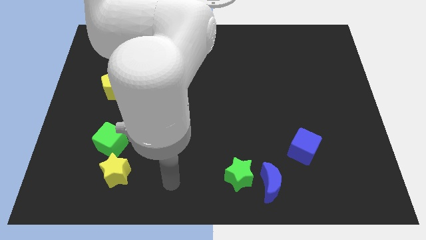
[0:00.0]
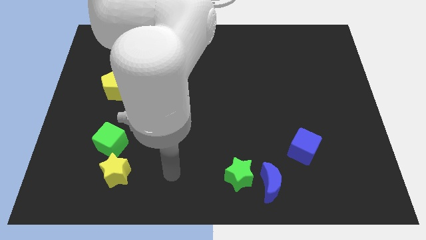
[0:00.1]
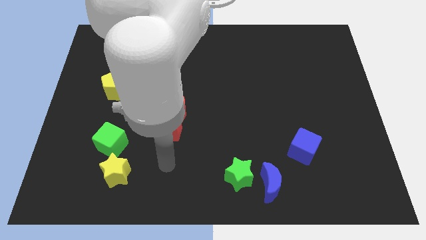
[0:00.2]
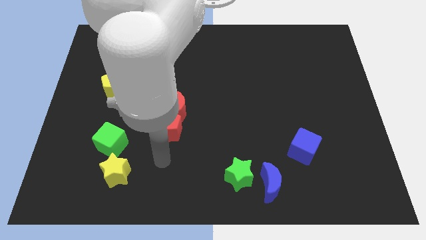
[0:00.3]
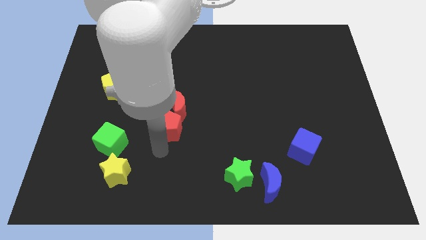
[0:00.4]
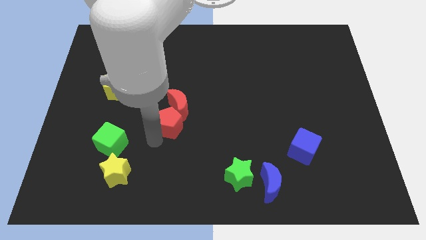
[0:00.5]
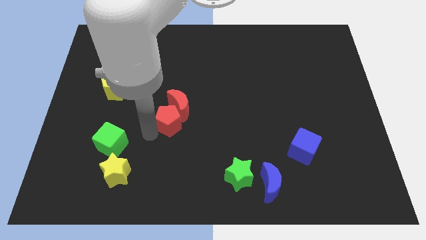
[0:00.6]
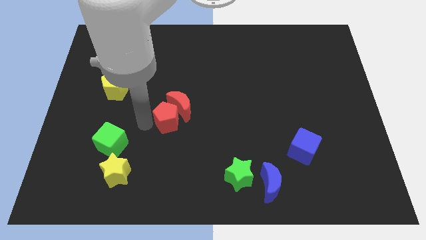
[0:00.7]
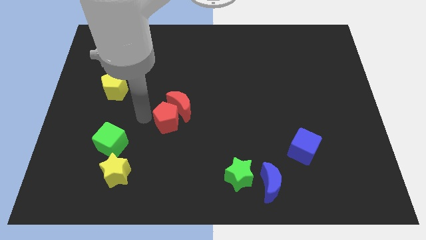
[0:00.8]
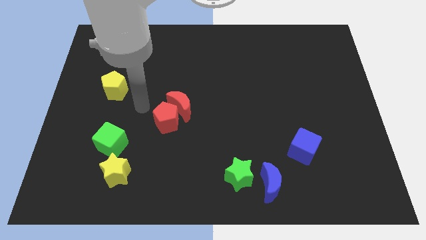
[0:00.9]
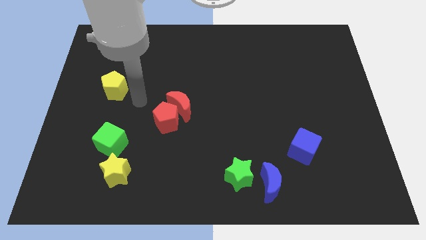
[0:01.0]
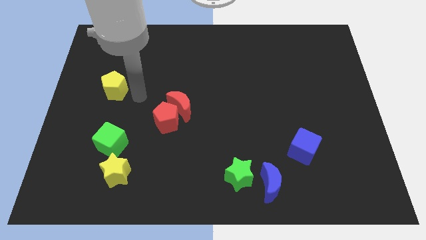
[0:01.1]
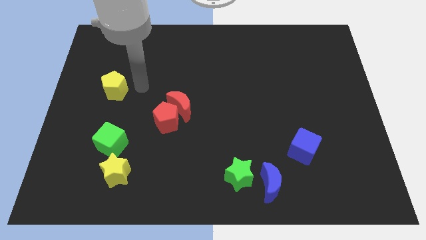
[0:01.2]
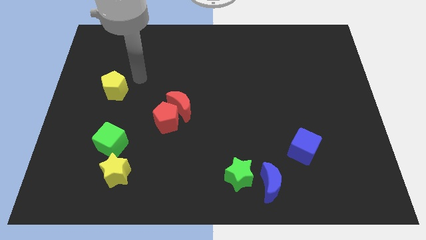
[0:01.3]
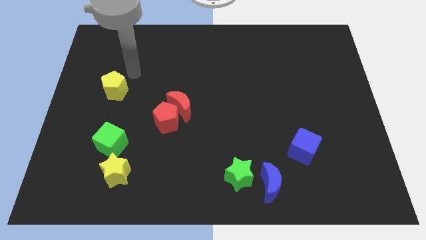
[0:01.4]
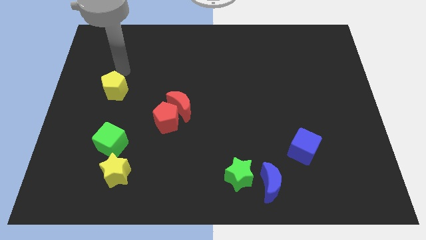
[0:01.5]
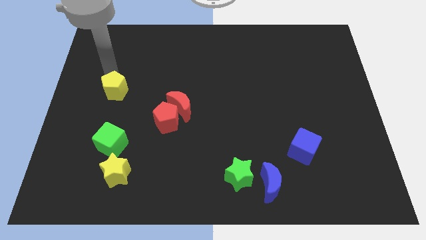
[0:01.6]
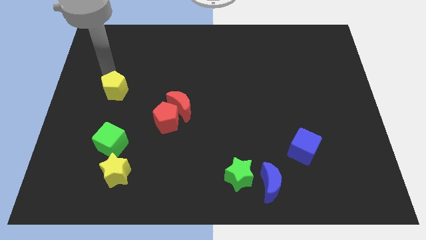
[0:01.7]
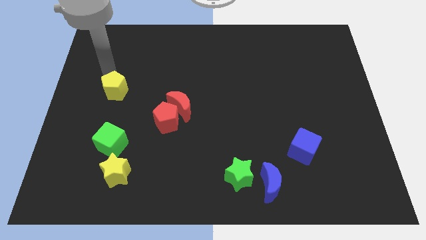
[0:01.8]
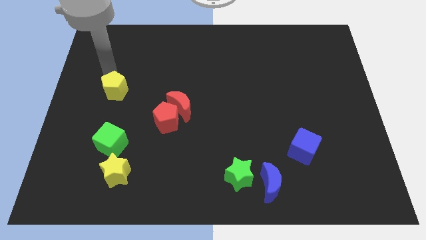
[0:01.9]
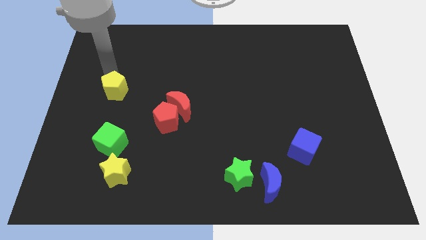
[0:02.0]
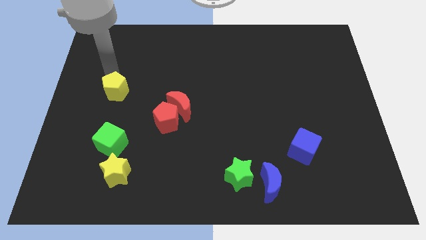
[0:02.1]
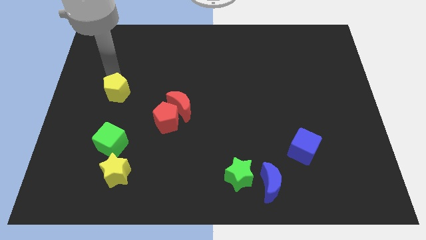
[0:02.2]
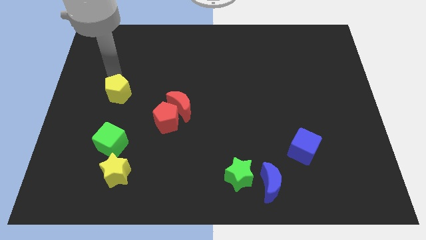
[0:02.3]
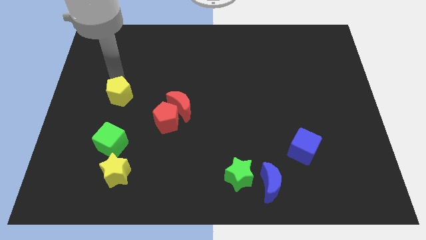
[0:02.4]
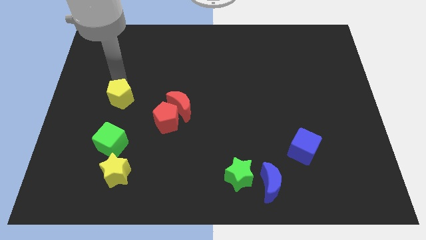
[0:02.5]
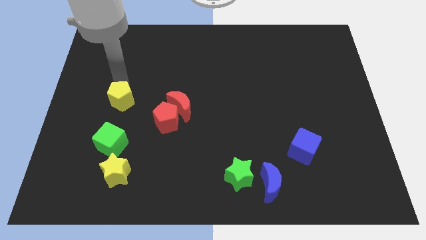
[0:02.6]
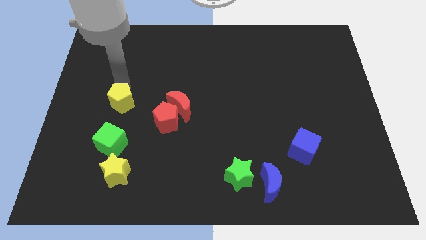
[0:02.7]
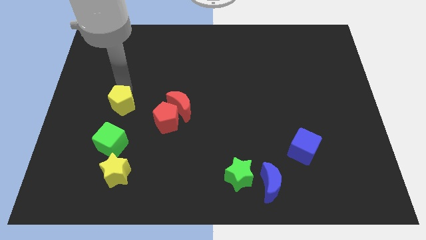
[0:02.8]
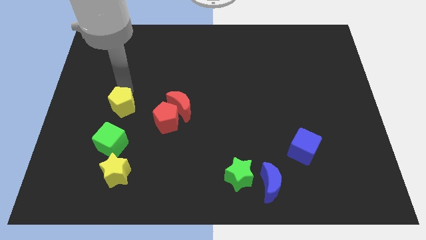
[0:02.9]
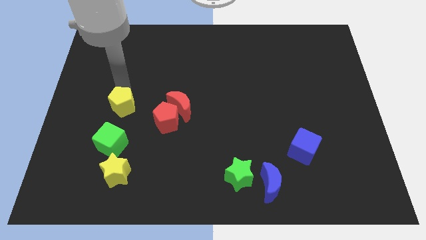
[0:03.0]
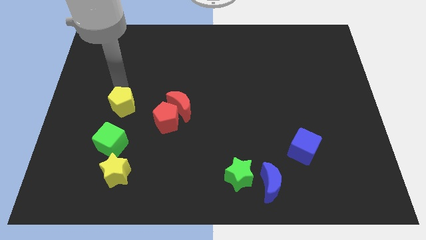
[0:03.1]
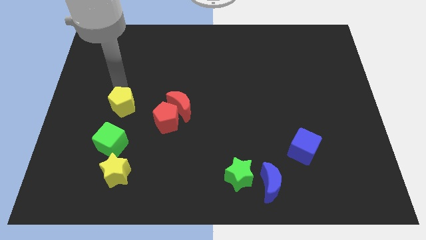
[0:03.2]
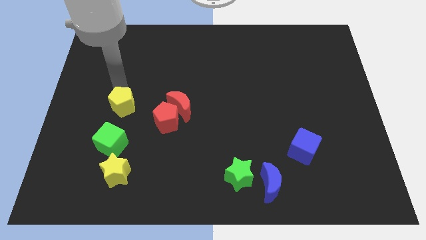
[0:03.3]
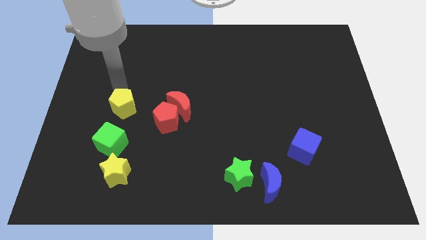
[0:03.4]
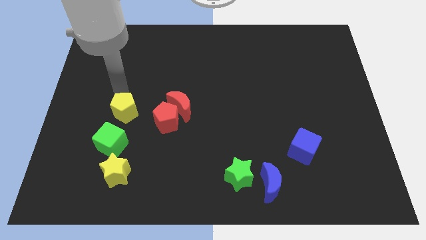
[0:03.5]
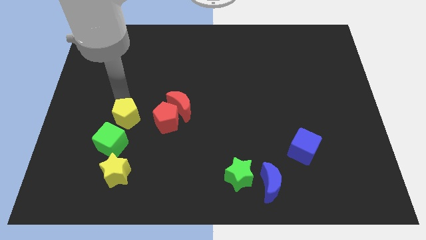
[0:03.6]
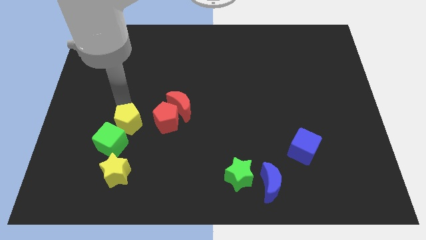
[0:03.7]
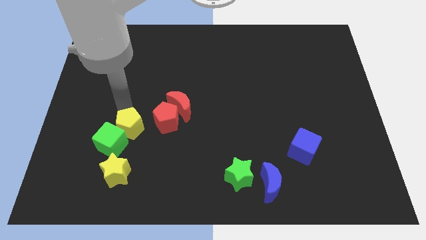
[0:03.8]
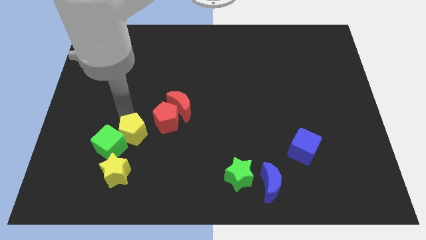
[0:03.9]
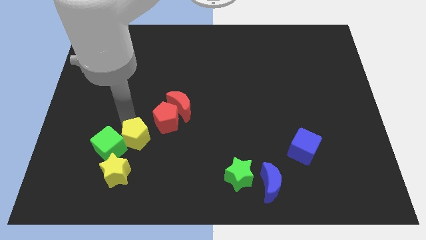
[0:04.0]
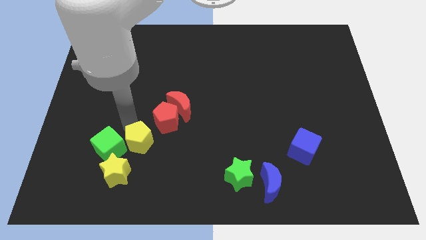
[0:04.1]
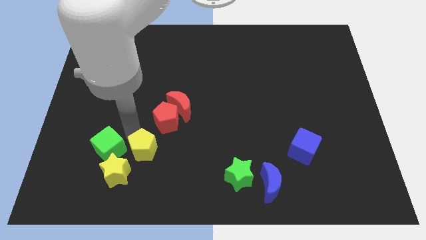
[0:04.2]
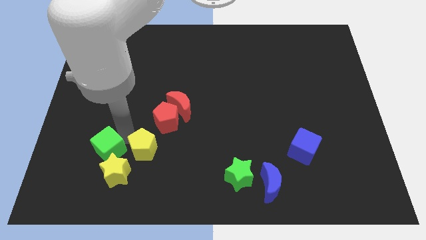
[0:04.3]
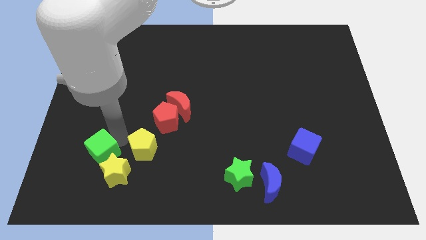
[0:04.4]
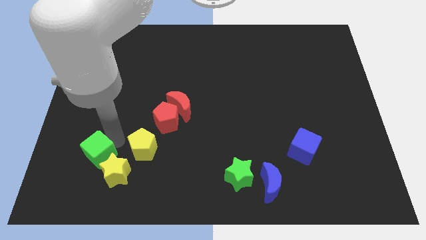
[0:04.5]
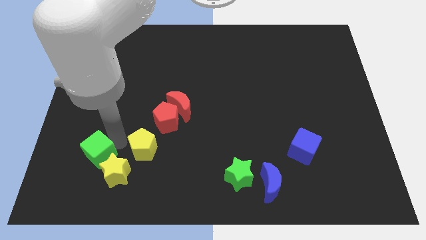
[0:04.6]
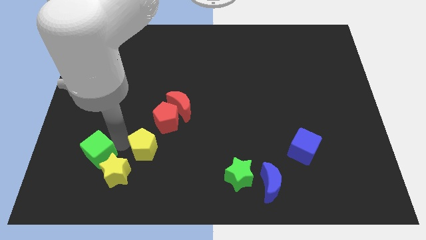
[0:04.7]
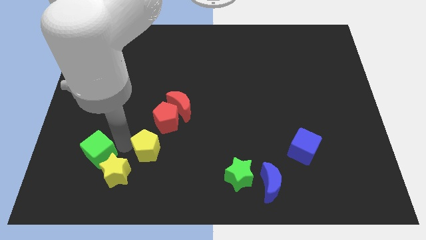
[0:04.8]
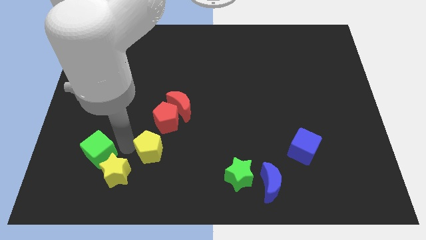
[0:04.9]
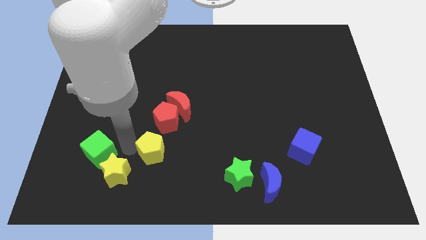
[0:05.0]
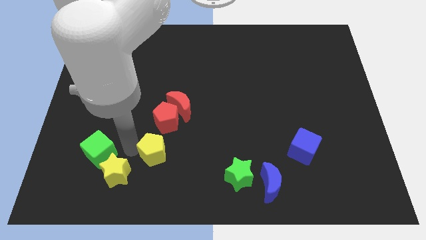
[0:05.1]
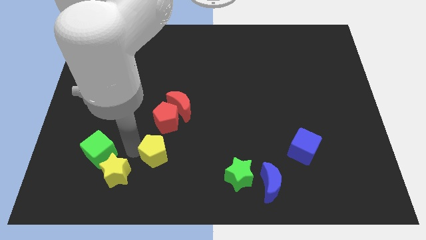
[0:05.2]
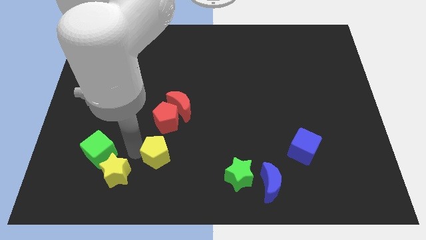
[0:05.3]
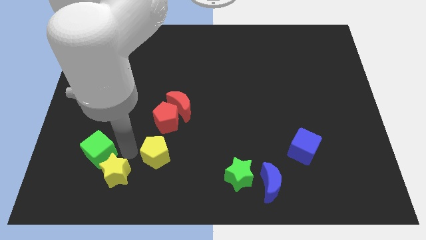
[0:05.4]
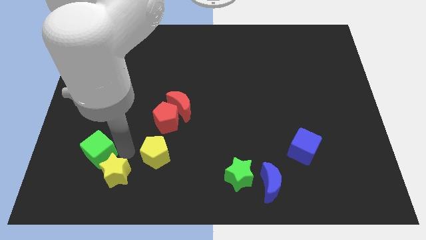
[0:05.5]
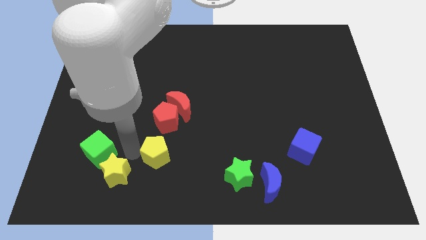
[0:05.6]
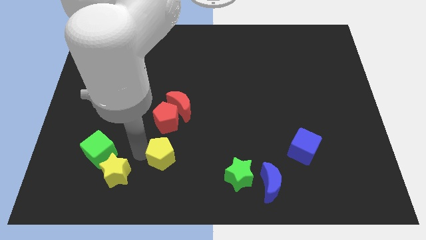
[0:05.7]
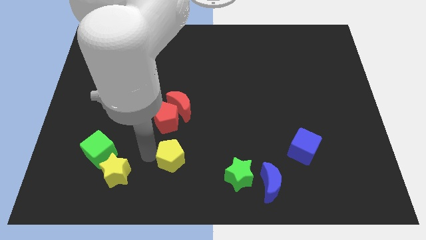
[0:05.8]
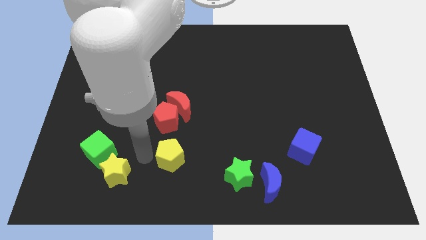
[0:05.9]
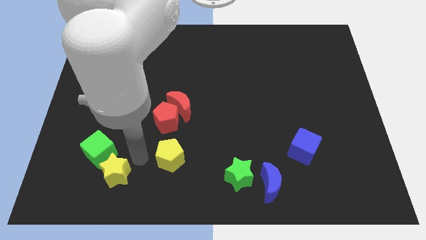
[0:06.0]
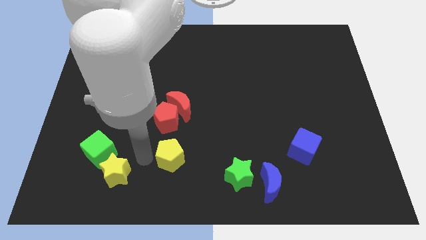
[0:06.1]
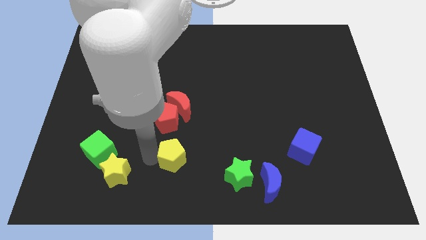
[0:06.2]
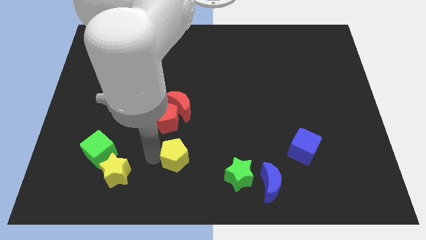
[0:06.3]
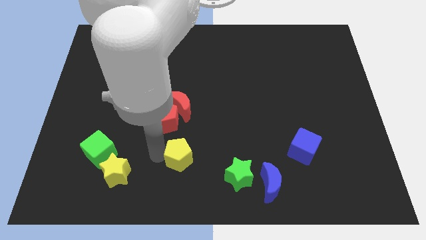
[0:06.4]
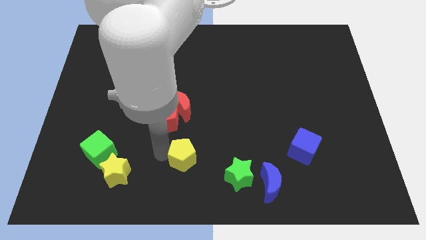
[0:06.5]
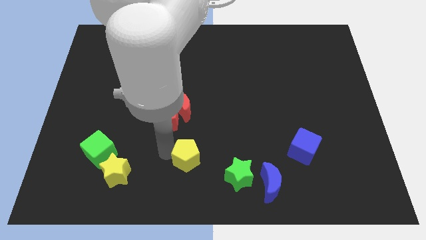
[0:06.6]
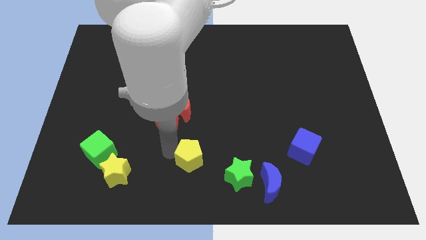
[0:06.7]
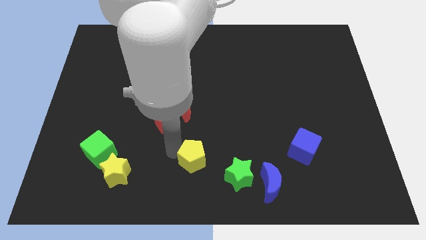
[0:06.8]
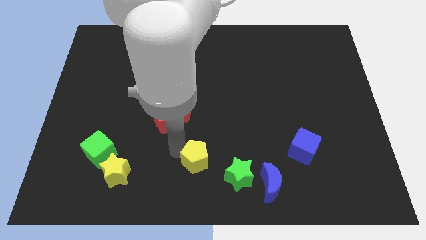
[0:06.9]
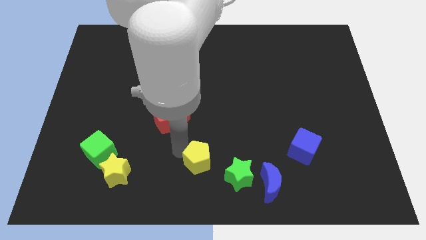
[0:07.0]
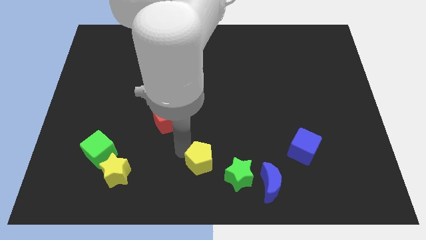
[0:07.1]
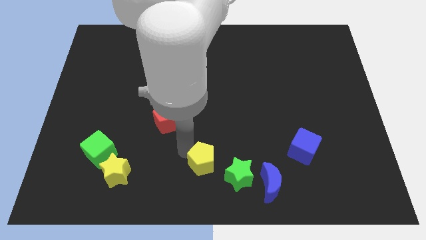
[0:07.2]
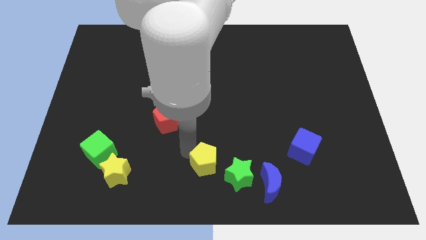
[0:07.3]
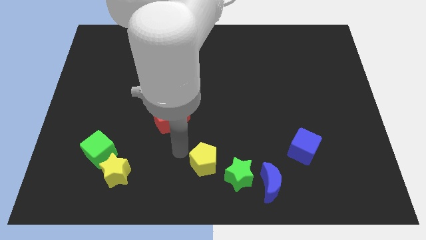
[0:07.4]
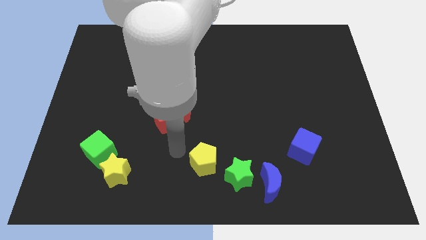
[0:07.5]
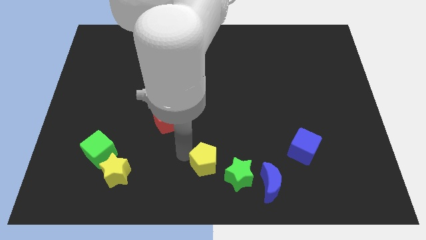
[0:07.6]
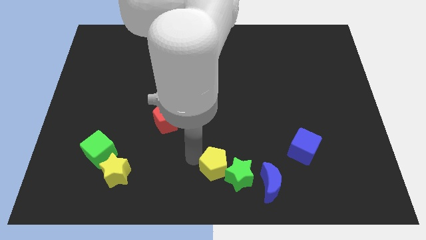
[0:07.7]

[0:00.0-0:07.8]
move the yellow pentagon to the green star

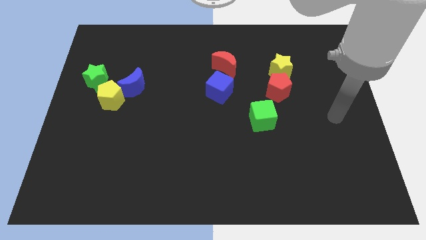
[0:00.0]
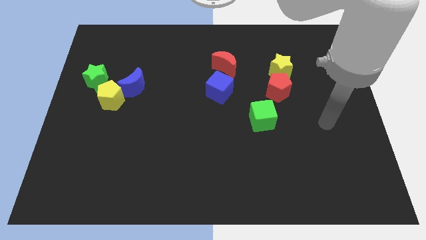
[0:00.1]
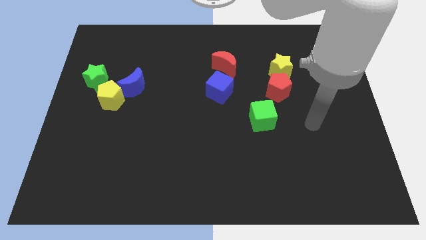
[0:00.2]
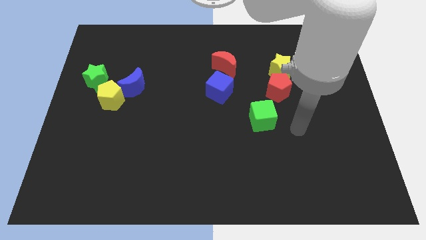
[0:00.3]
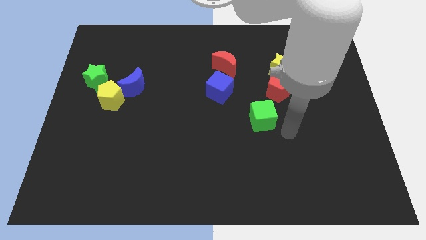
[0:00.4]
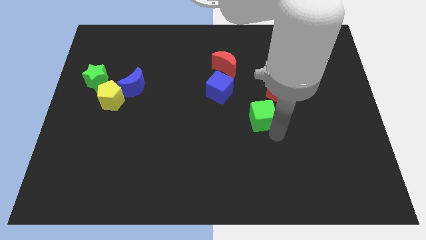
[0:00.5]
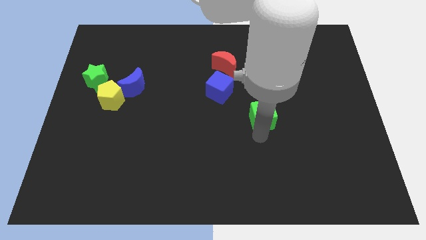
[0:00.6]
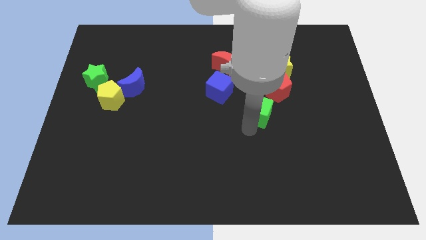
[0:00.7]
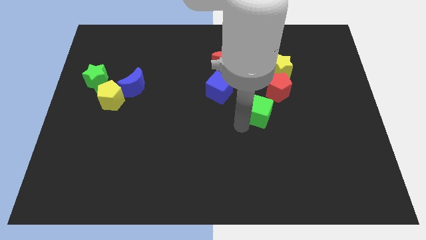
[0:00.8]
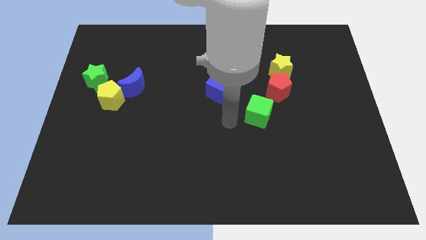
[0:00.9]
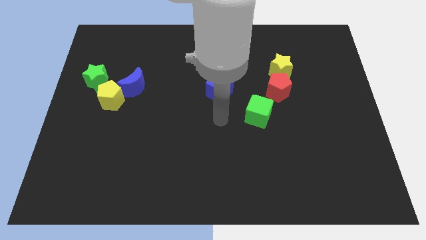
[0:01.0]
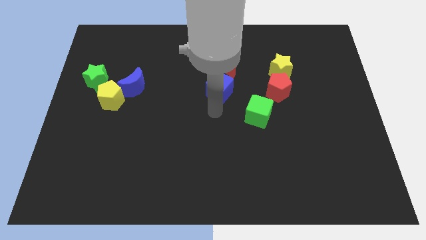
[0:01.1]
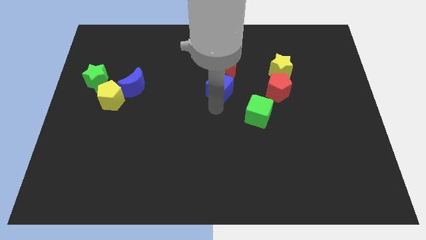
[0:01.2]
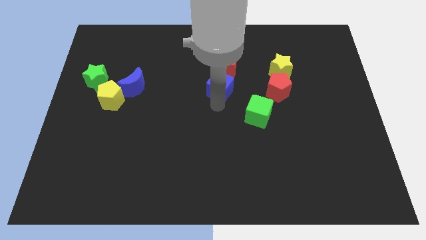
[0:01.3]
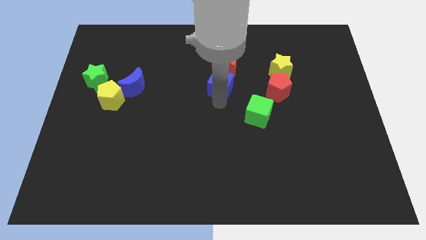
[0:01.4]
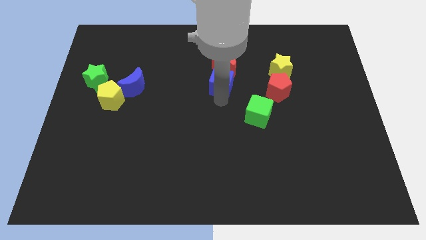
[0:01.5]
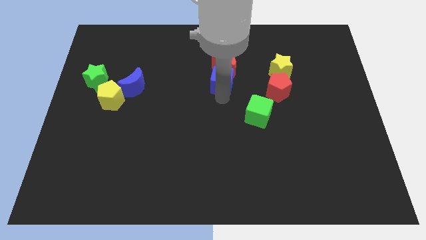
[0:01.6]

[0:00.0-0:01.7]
put the blue cube close to the red moon
